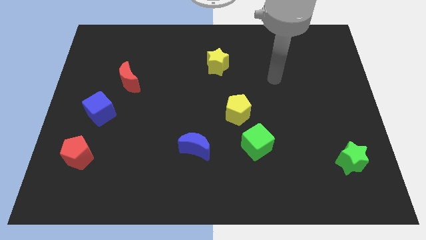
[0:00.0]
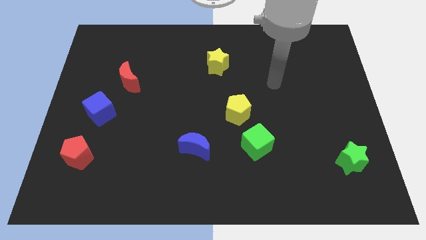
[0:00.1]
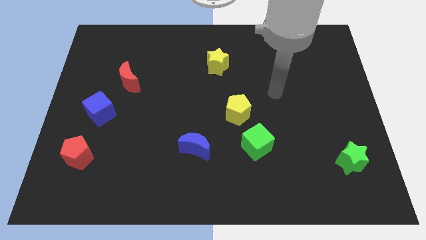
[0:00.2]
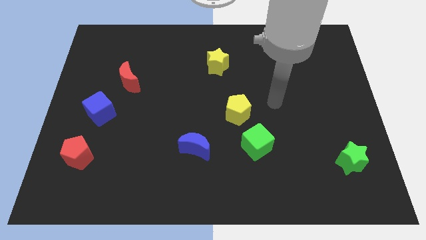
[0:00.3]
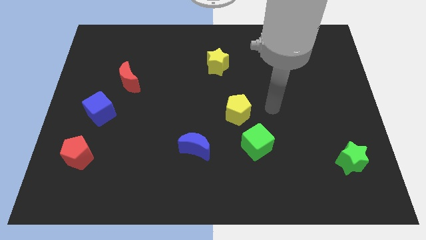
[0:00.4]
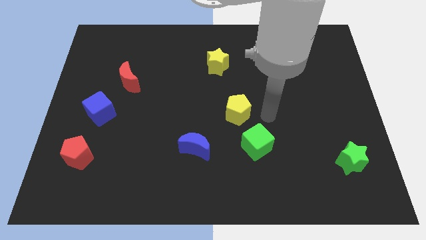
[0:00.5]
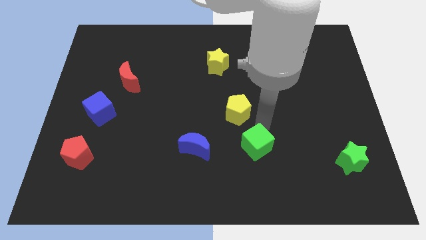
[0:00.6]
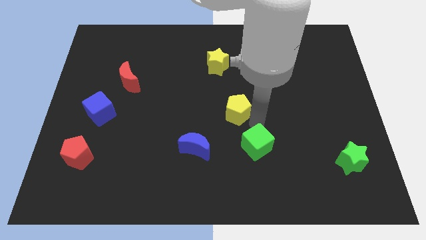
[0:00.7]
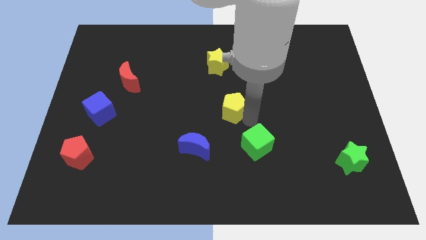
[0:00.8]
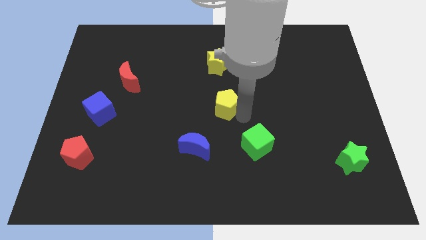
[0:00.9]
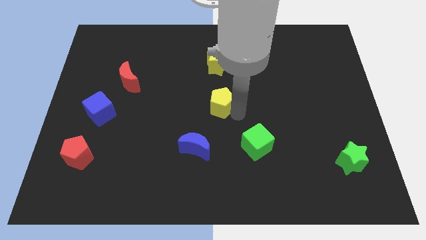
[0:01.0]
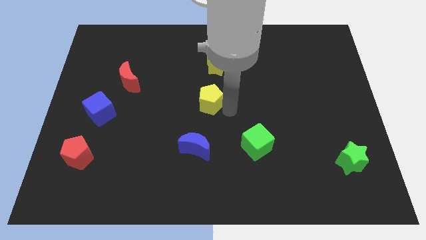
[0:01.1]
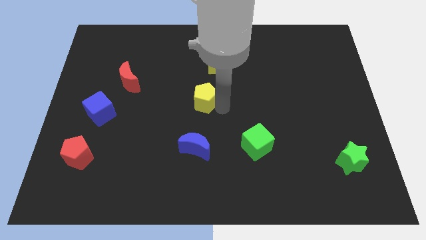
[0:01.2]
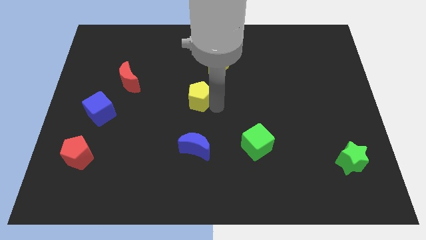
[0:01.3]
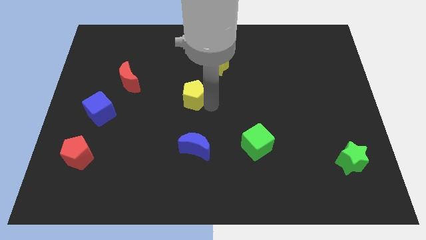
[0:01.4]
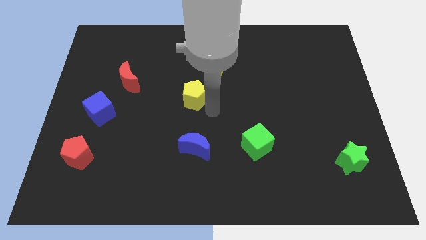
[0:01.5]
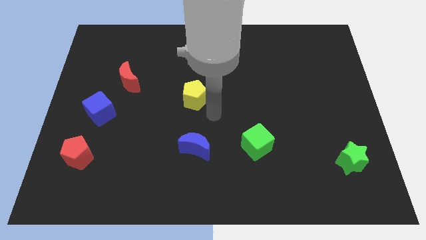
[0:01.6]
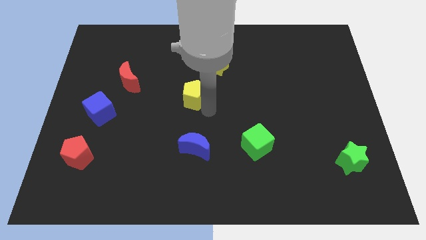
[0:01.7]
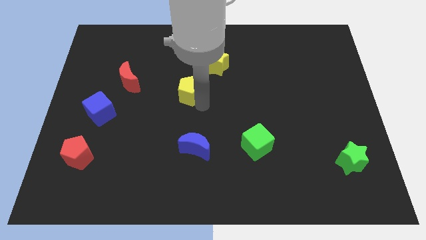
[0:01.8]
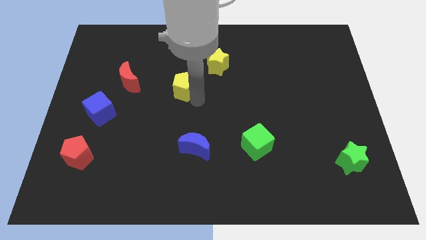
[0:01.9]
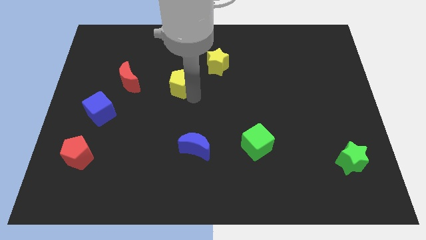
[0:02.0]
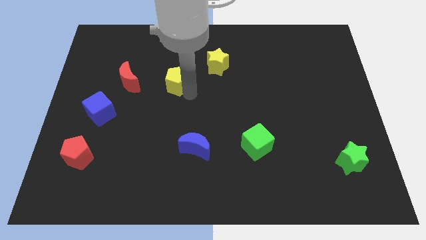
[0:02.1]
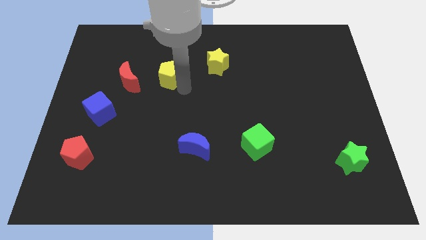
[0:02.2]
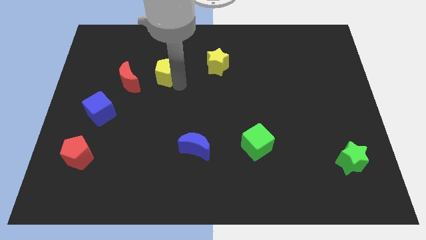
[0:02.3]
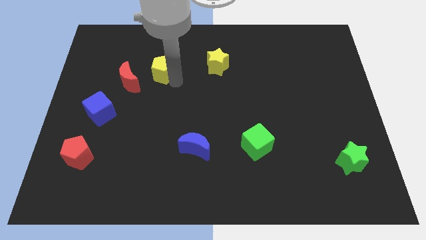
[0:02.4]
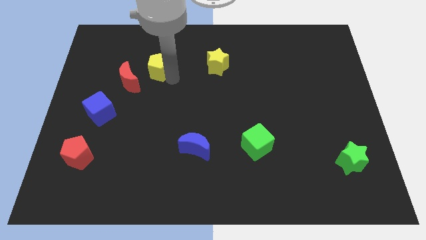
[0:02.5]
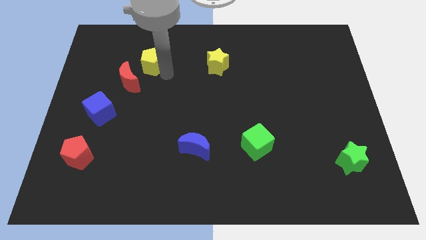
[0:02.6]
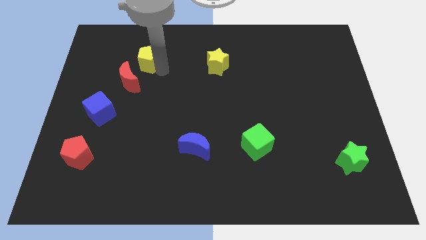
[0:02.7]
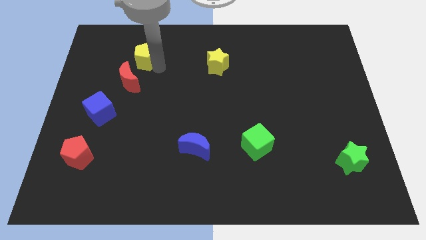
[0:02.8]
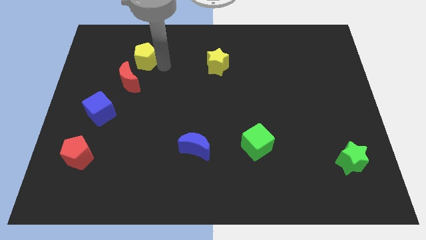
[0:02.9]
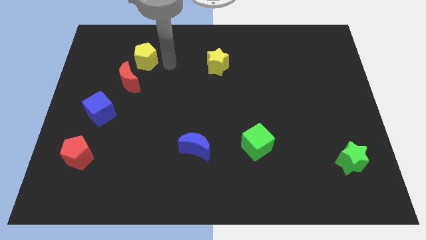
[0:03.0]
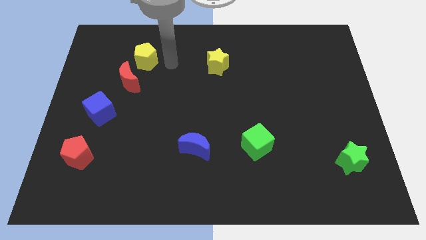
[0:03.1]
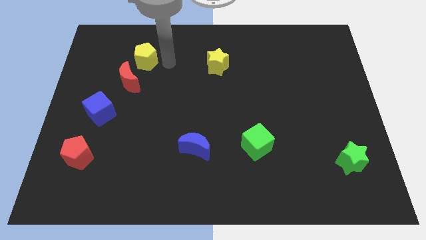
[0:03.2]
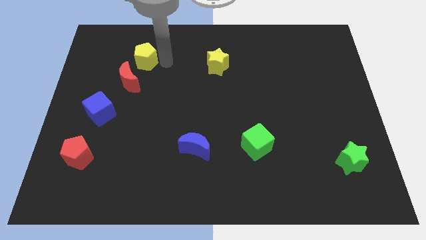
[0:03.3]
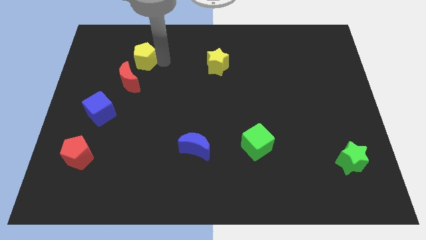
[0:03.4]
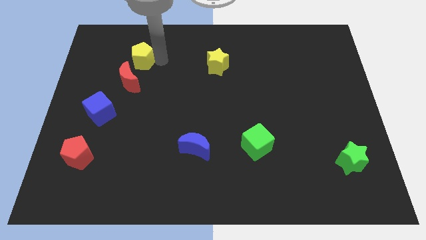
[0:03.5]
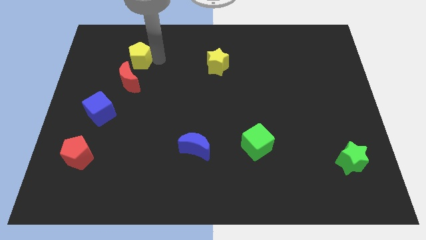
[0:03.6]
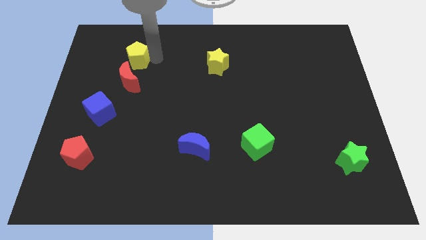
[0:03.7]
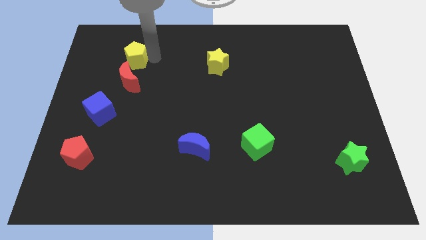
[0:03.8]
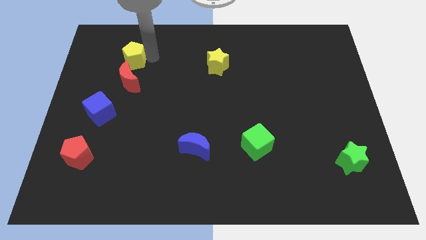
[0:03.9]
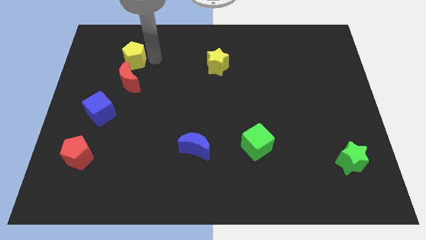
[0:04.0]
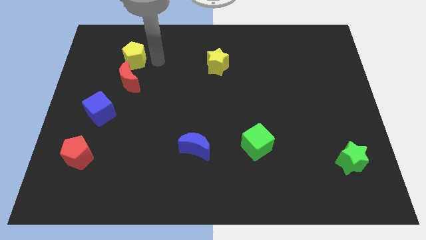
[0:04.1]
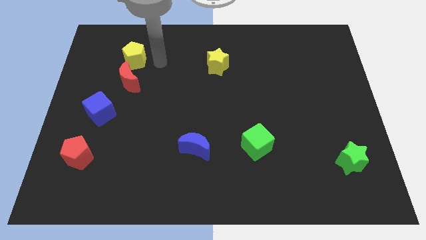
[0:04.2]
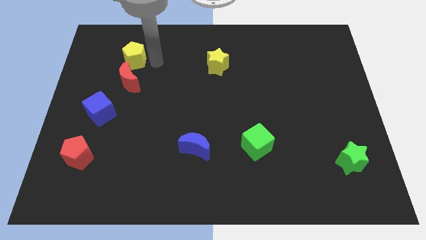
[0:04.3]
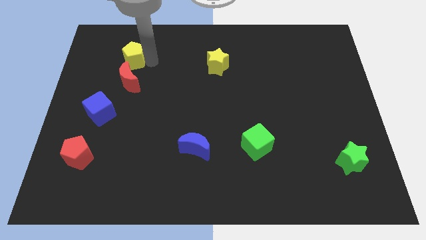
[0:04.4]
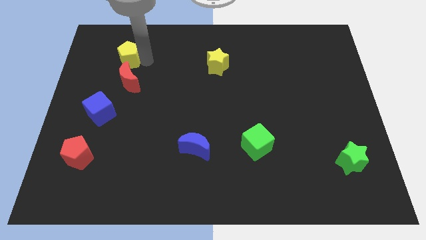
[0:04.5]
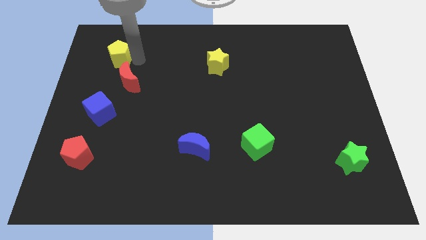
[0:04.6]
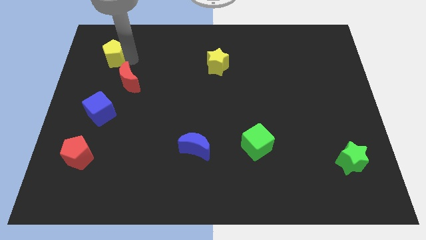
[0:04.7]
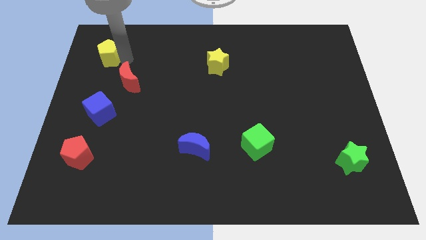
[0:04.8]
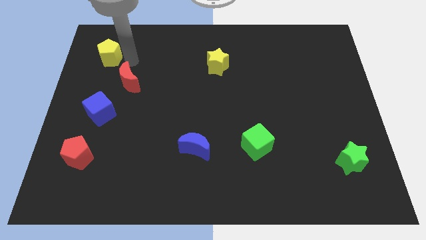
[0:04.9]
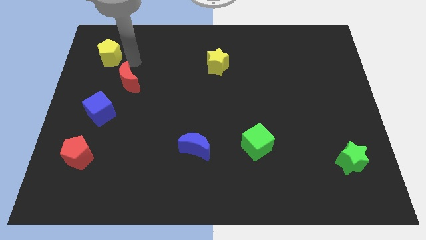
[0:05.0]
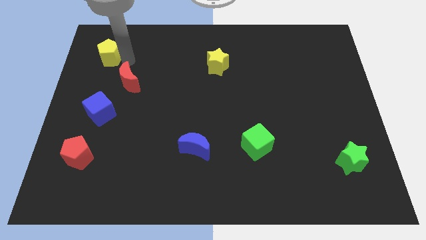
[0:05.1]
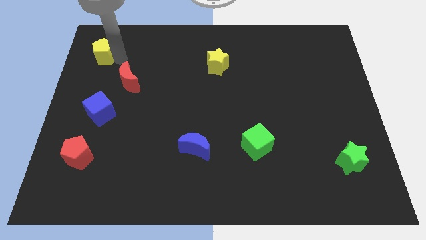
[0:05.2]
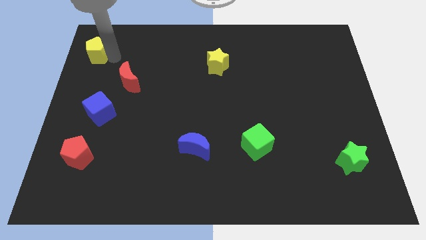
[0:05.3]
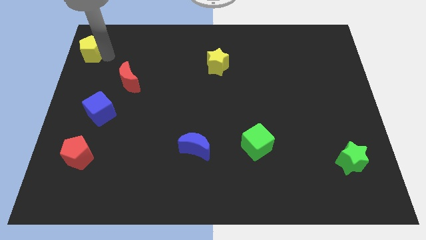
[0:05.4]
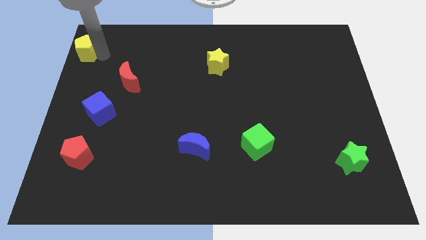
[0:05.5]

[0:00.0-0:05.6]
slide the yellow pentagon to the top left of the board

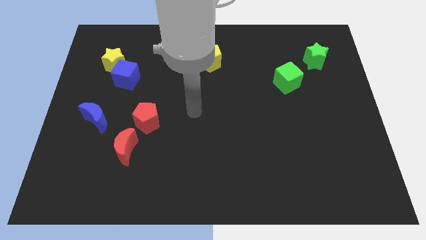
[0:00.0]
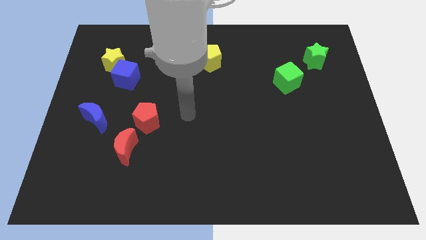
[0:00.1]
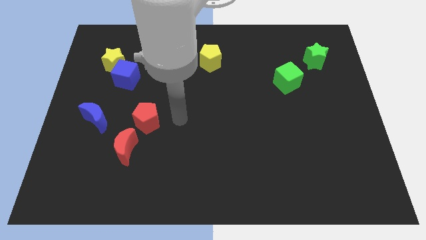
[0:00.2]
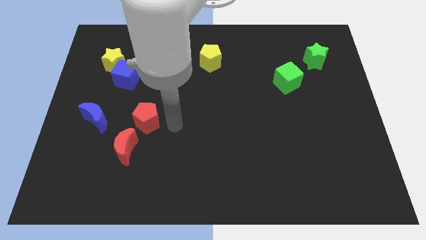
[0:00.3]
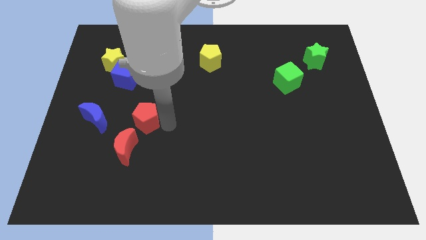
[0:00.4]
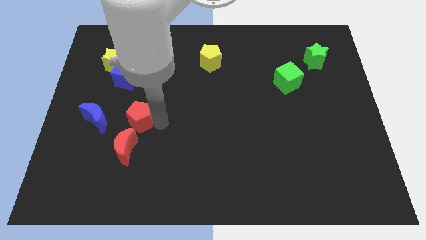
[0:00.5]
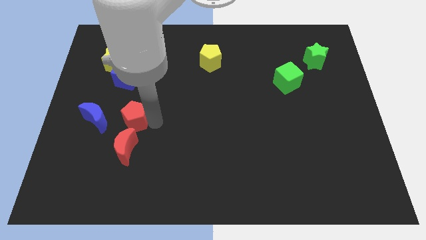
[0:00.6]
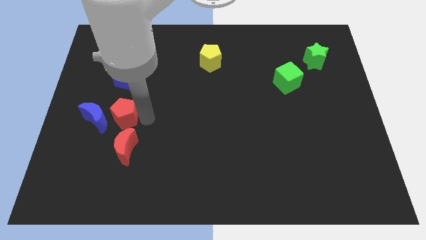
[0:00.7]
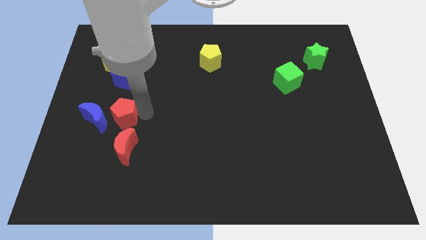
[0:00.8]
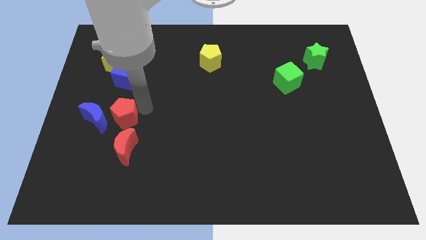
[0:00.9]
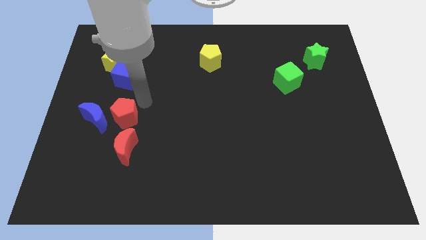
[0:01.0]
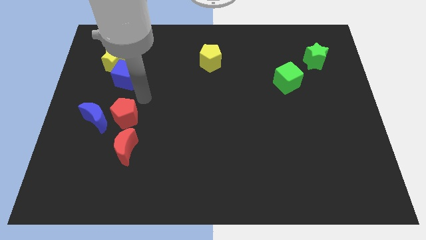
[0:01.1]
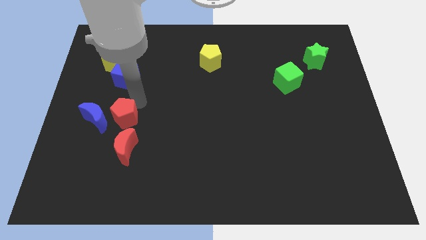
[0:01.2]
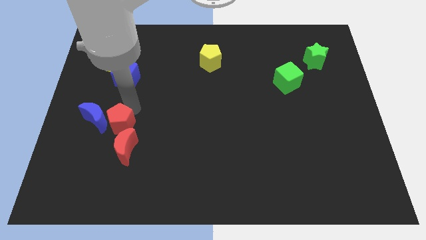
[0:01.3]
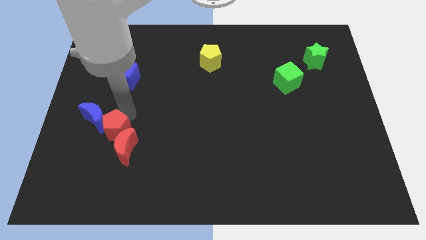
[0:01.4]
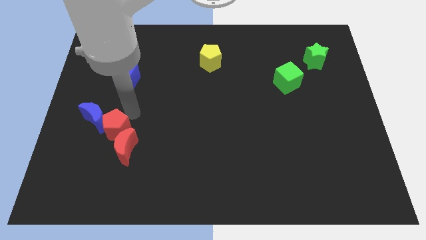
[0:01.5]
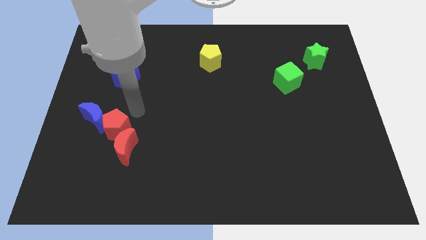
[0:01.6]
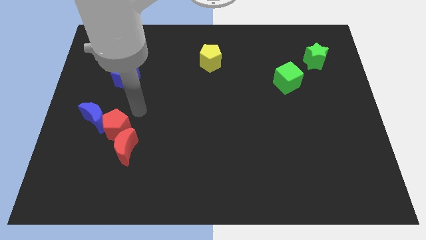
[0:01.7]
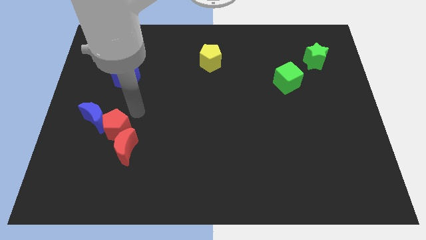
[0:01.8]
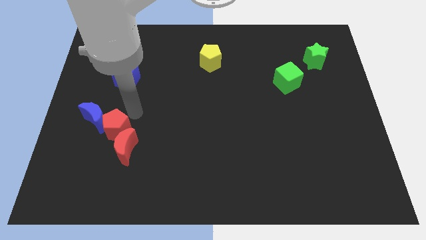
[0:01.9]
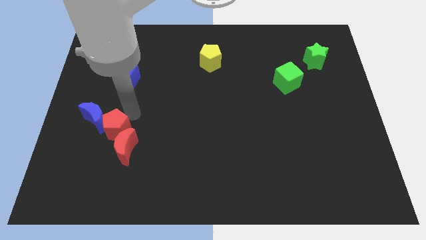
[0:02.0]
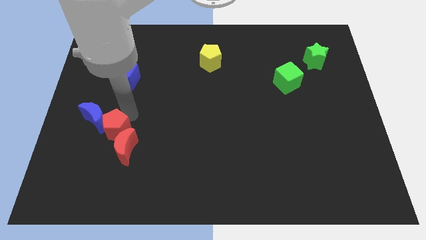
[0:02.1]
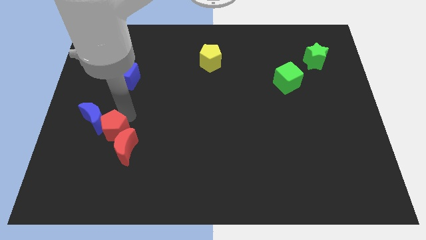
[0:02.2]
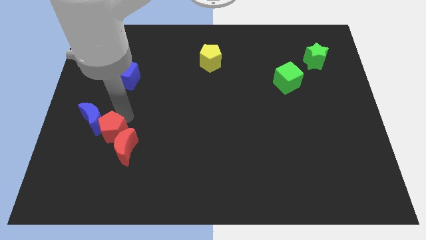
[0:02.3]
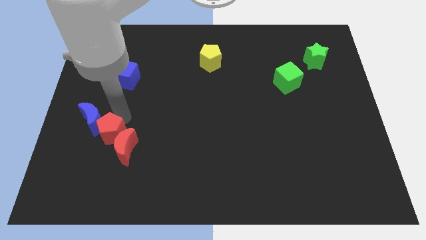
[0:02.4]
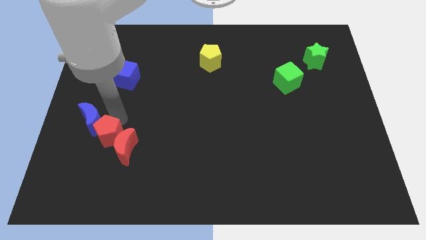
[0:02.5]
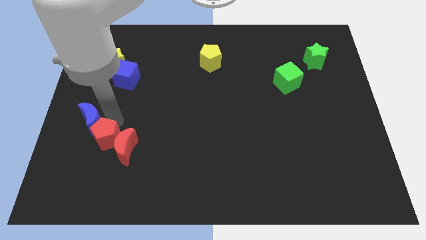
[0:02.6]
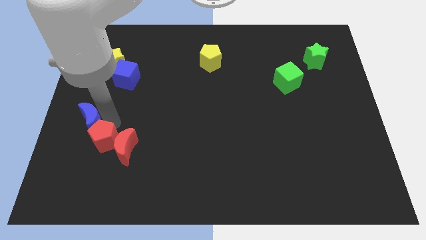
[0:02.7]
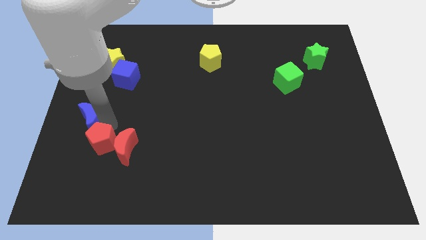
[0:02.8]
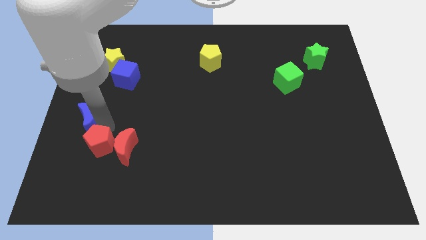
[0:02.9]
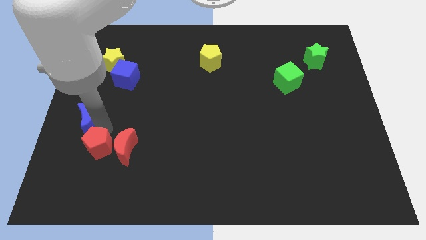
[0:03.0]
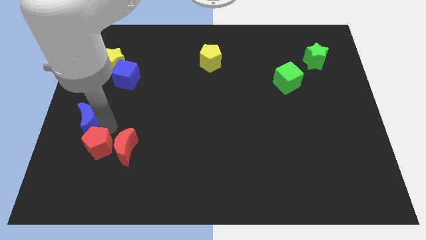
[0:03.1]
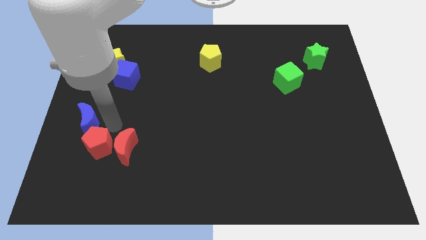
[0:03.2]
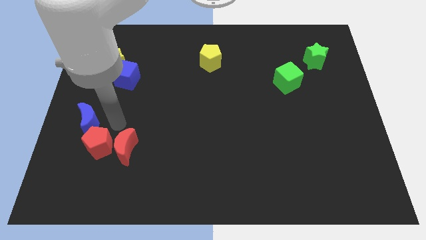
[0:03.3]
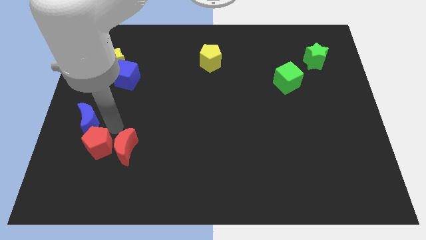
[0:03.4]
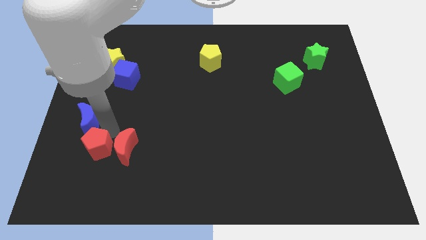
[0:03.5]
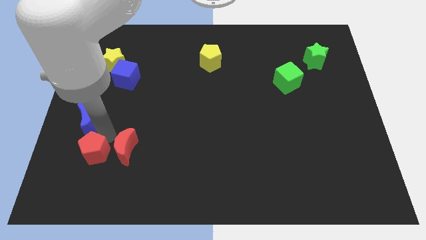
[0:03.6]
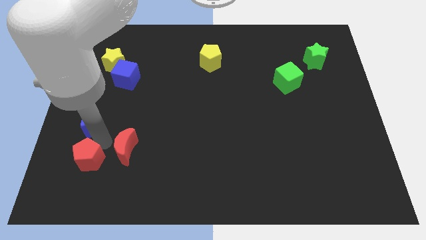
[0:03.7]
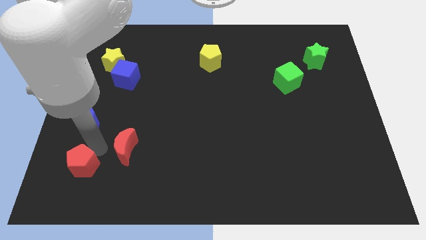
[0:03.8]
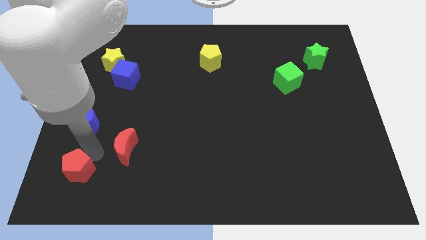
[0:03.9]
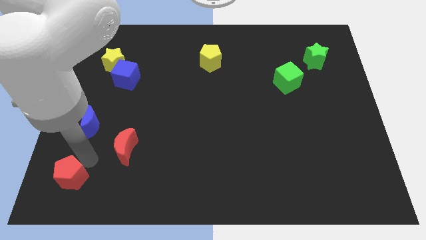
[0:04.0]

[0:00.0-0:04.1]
put the red pentagon to the bottom left
